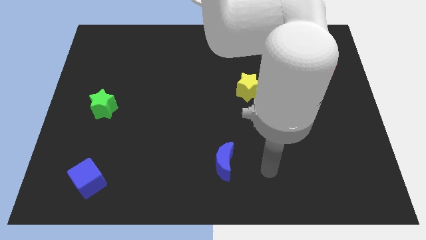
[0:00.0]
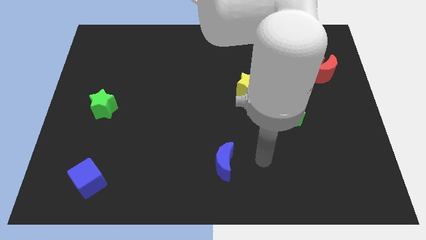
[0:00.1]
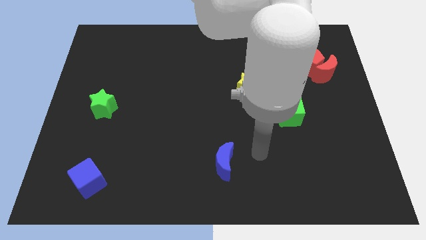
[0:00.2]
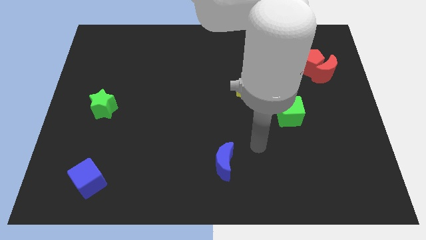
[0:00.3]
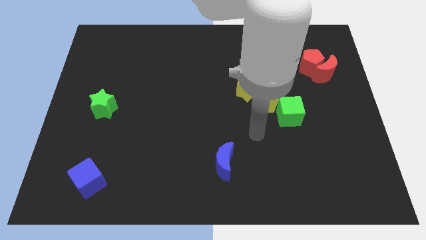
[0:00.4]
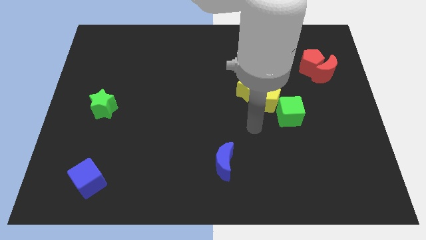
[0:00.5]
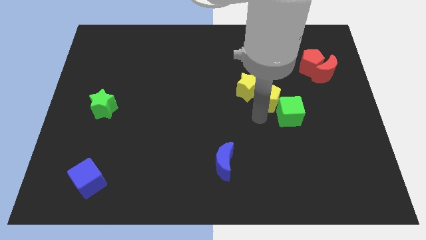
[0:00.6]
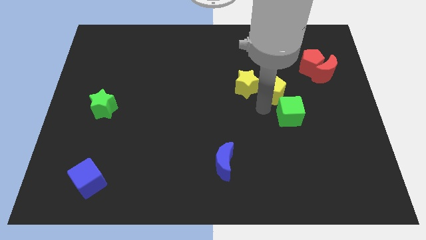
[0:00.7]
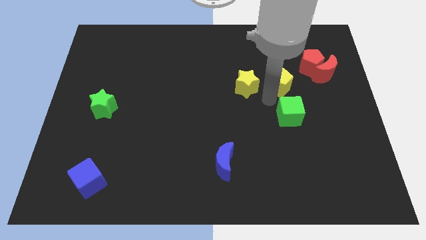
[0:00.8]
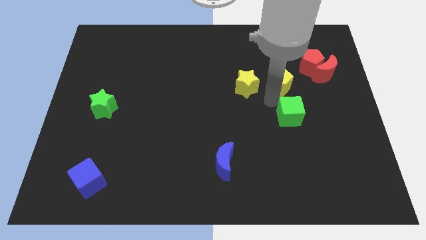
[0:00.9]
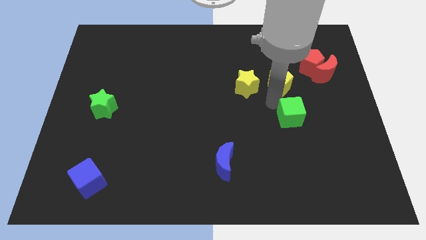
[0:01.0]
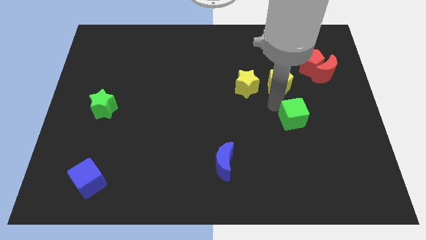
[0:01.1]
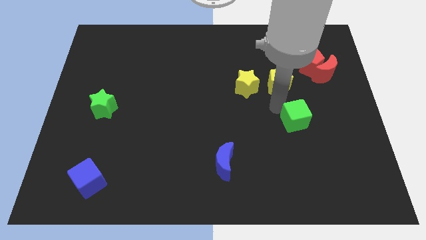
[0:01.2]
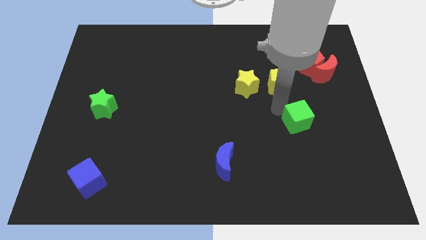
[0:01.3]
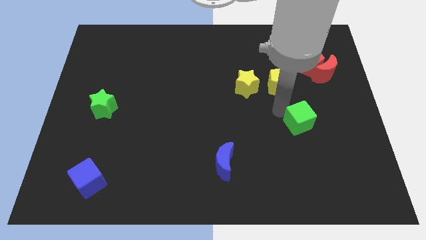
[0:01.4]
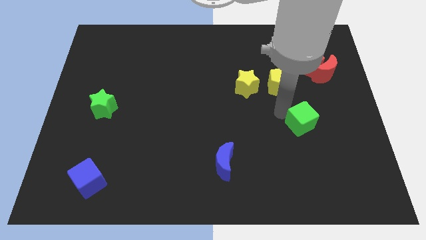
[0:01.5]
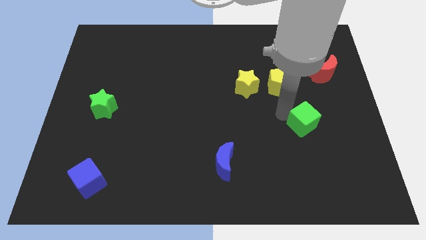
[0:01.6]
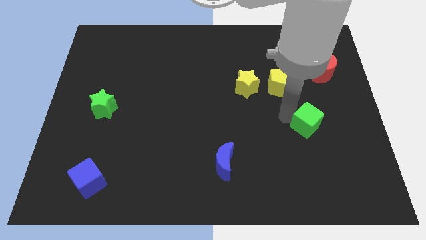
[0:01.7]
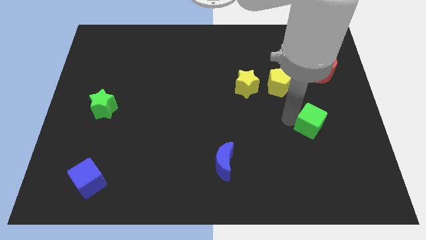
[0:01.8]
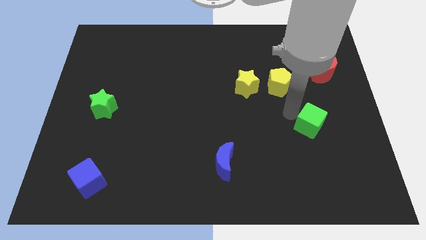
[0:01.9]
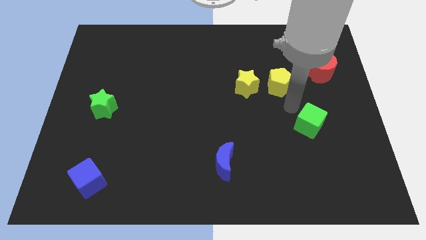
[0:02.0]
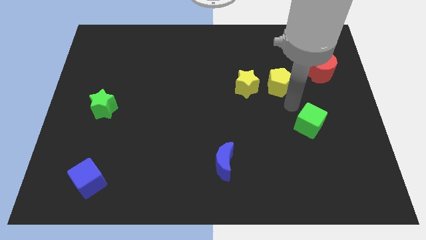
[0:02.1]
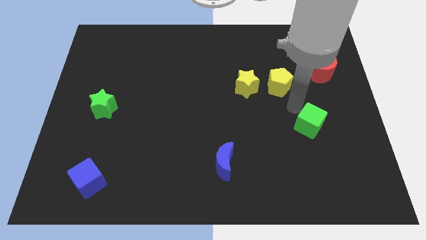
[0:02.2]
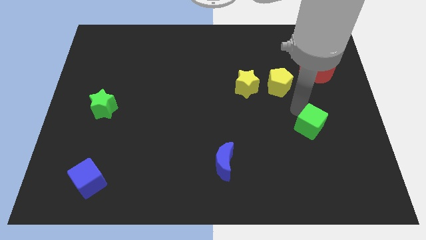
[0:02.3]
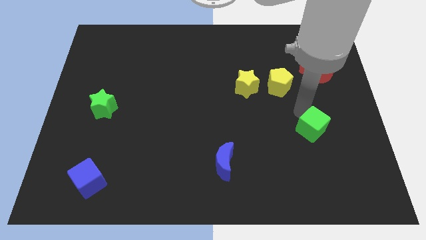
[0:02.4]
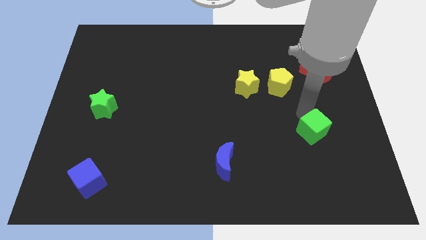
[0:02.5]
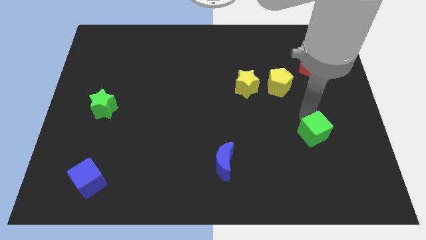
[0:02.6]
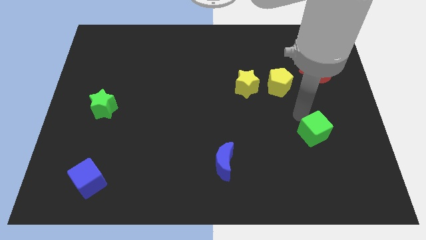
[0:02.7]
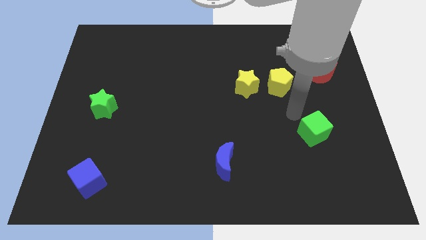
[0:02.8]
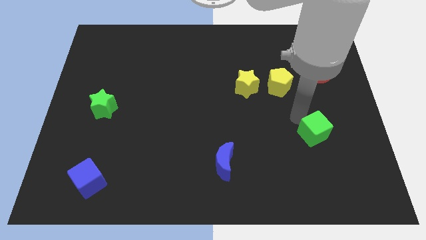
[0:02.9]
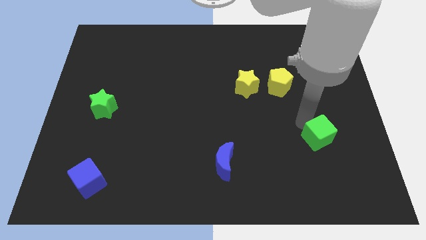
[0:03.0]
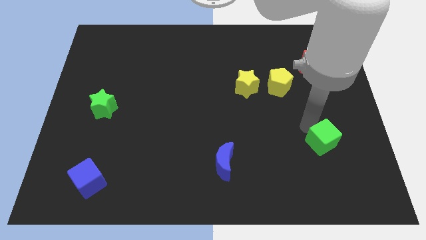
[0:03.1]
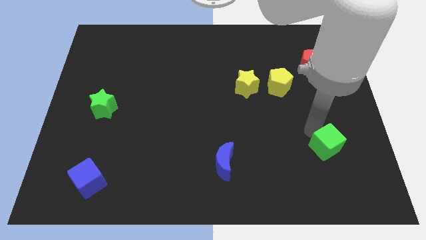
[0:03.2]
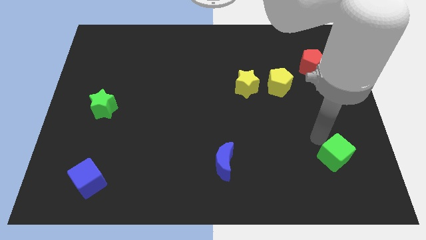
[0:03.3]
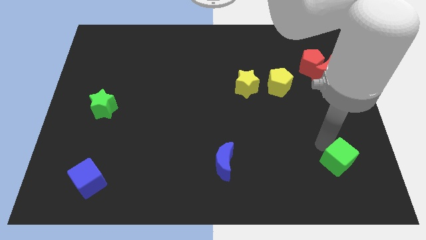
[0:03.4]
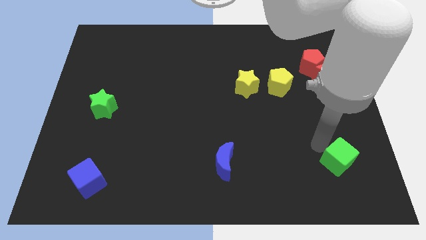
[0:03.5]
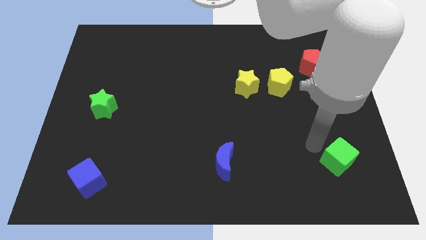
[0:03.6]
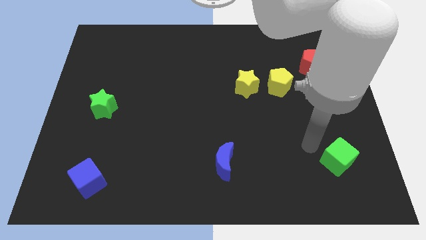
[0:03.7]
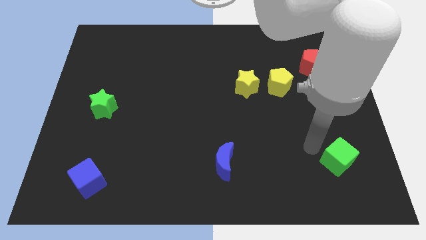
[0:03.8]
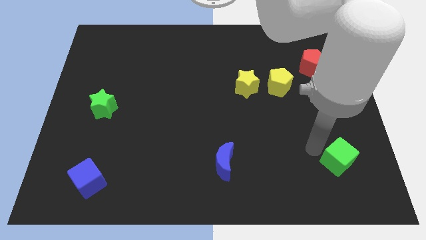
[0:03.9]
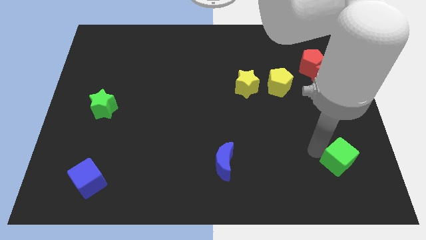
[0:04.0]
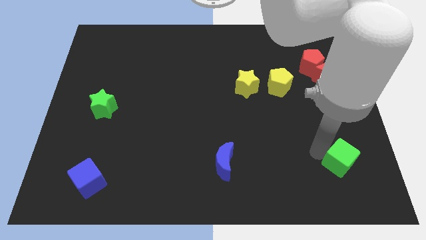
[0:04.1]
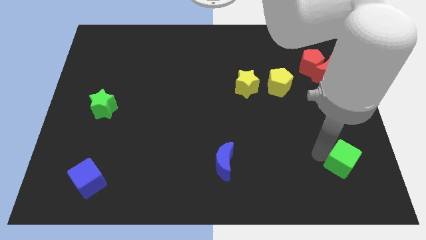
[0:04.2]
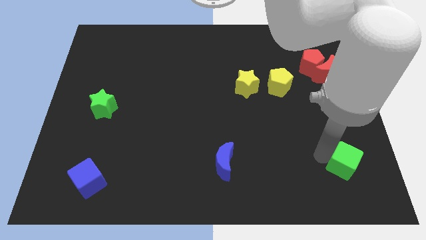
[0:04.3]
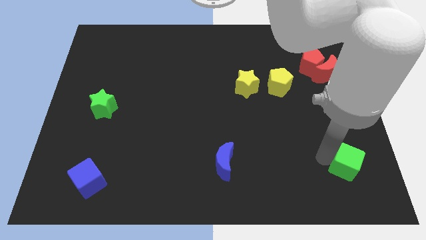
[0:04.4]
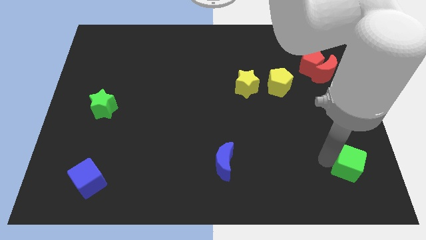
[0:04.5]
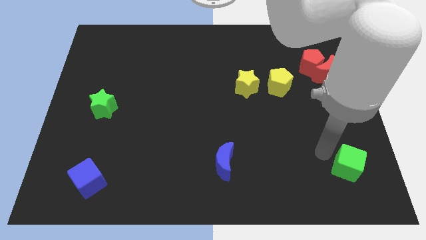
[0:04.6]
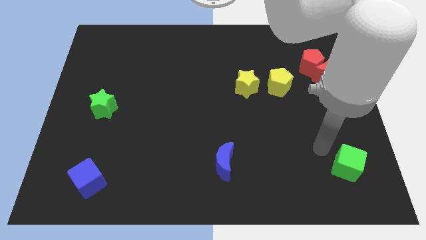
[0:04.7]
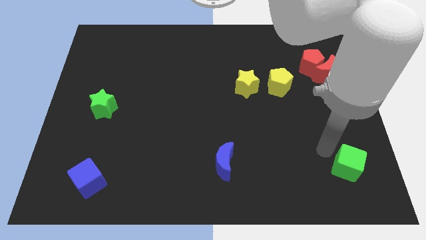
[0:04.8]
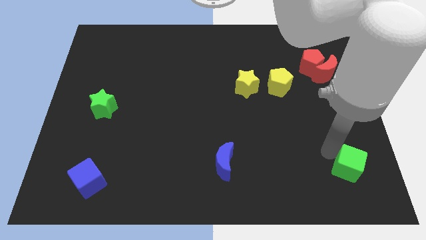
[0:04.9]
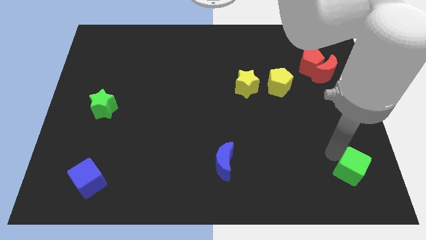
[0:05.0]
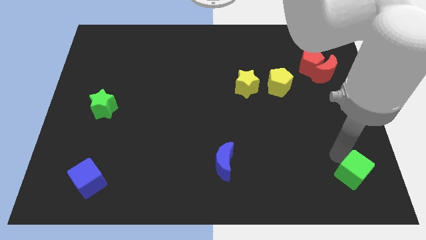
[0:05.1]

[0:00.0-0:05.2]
slide the green cube to the bottom right of the board

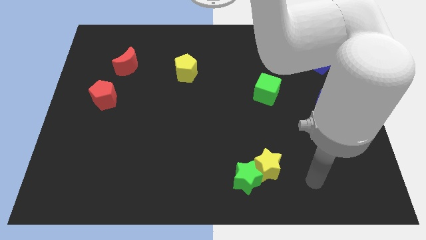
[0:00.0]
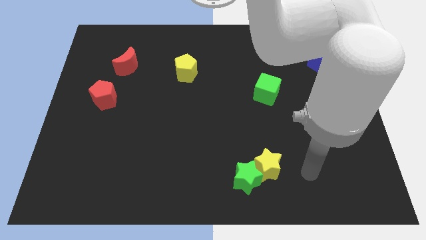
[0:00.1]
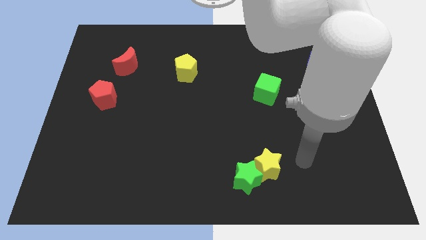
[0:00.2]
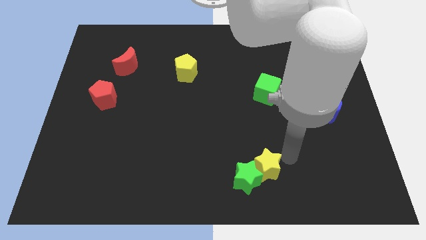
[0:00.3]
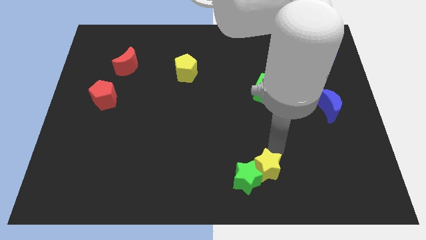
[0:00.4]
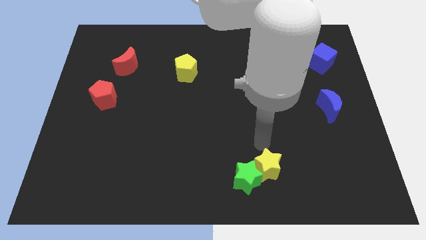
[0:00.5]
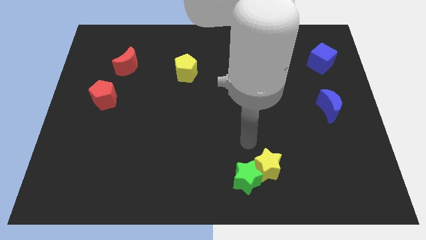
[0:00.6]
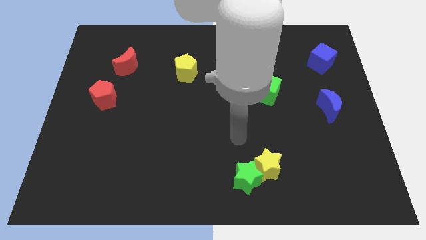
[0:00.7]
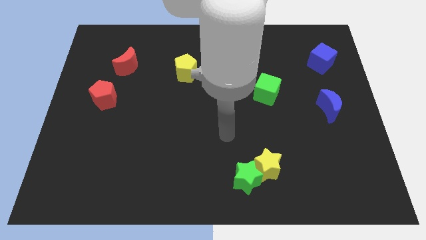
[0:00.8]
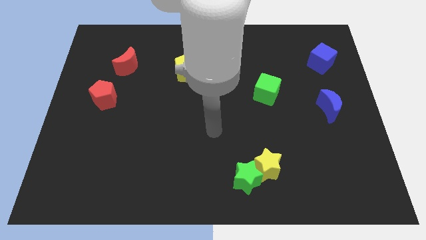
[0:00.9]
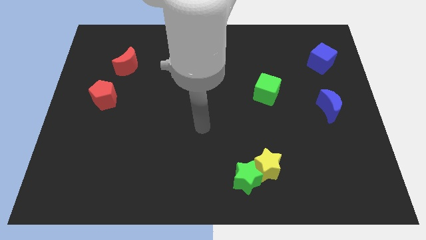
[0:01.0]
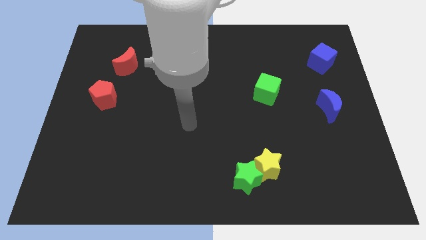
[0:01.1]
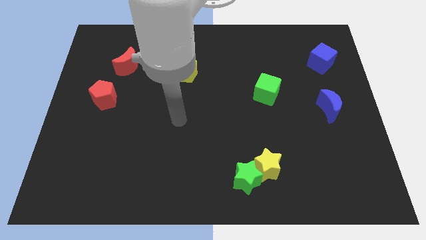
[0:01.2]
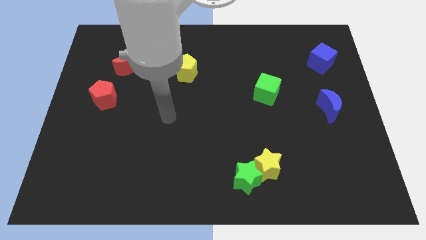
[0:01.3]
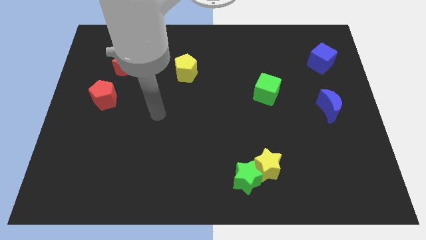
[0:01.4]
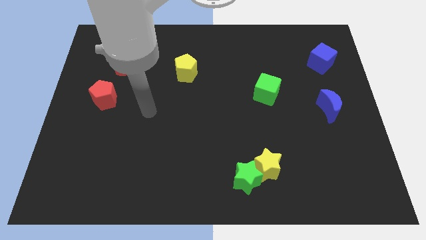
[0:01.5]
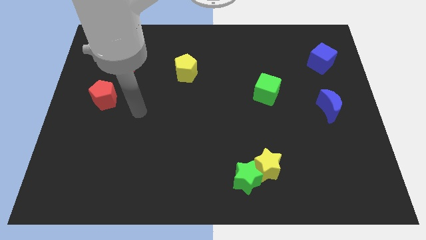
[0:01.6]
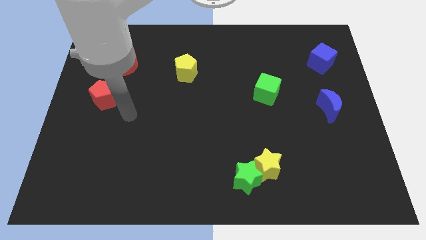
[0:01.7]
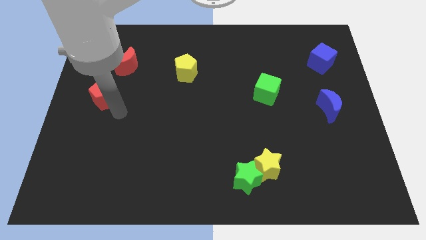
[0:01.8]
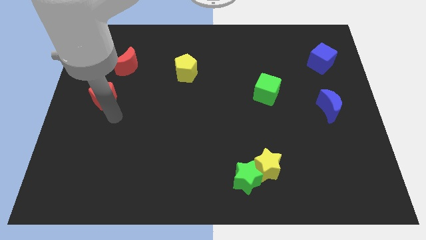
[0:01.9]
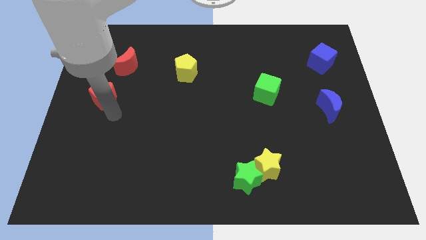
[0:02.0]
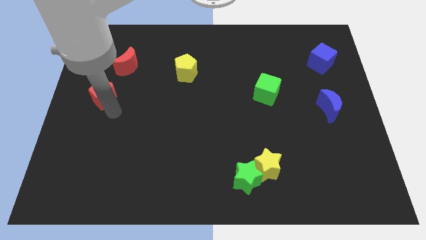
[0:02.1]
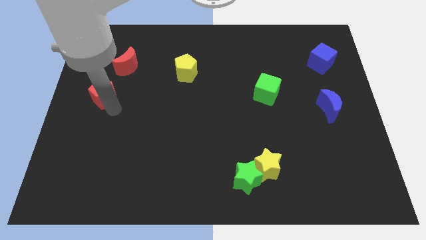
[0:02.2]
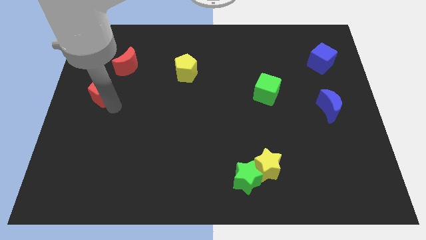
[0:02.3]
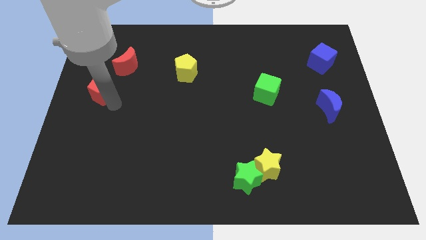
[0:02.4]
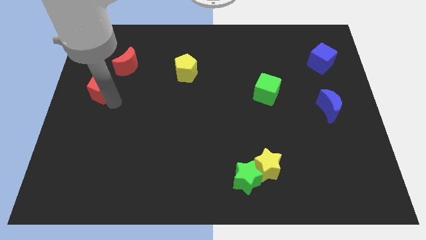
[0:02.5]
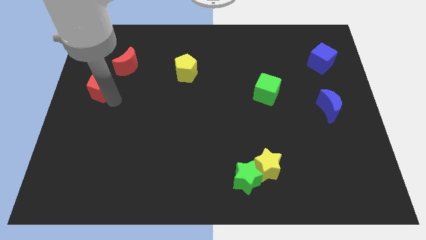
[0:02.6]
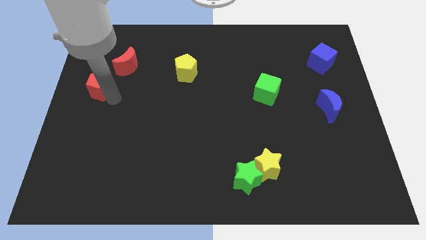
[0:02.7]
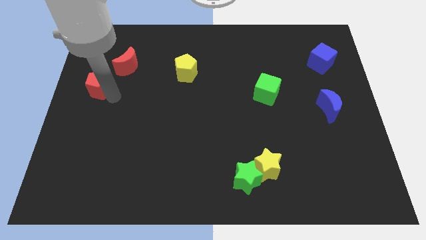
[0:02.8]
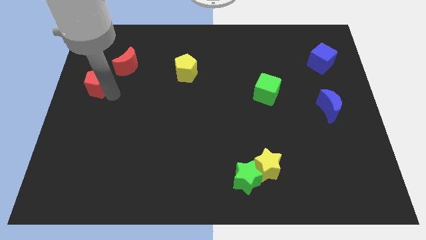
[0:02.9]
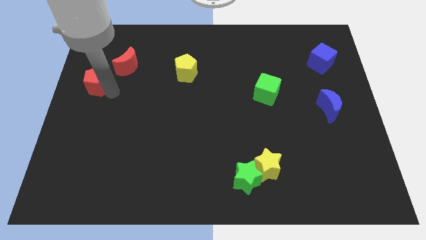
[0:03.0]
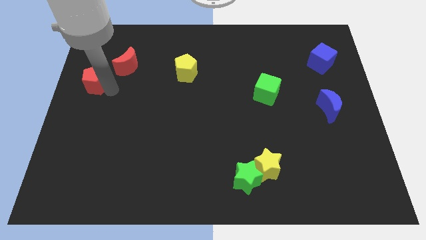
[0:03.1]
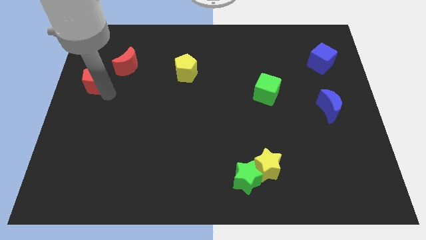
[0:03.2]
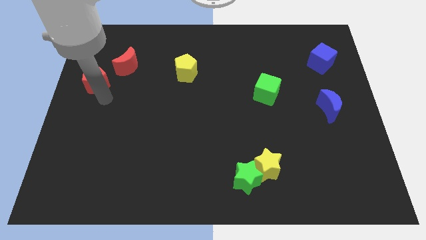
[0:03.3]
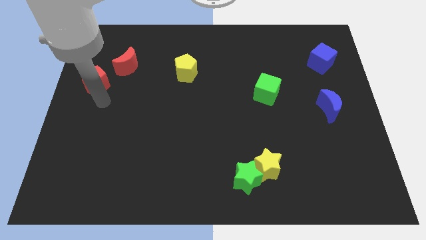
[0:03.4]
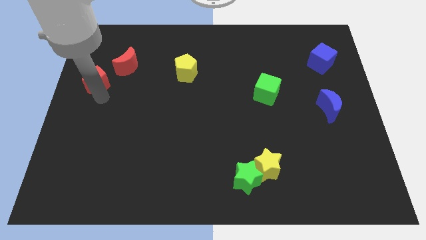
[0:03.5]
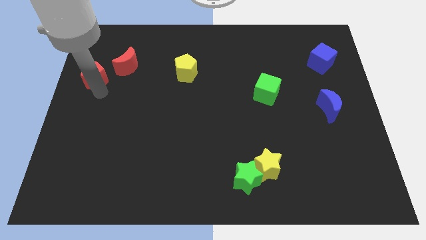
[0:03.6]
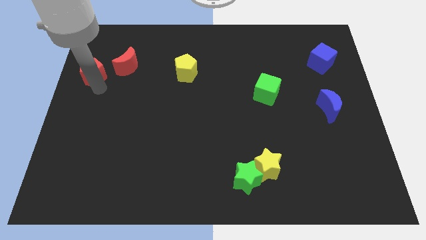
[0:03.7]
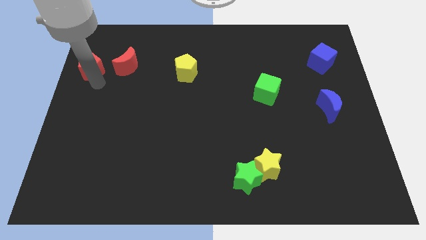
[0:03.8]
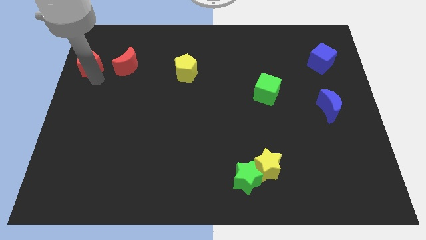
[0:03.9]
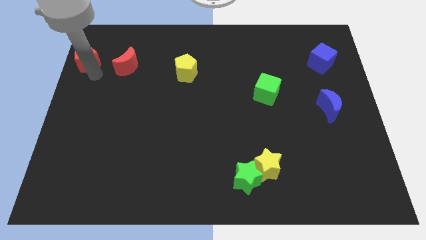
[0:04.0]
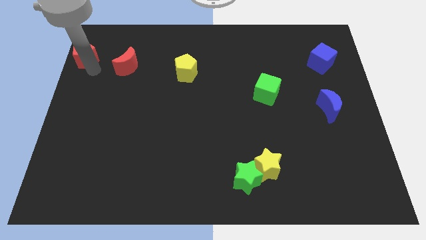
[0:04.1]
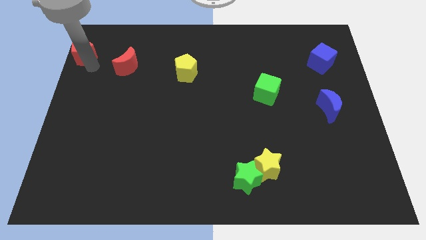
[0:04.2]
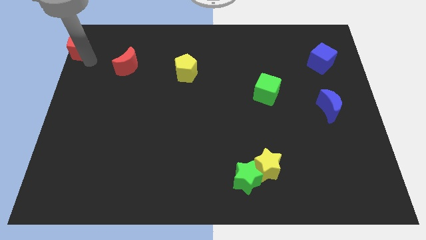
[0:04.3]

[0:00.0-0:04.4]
move the red pentagon to the top left
